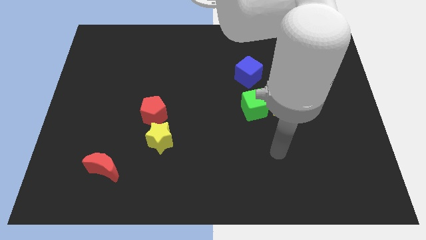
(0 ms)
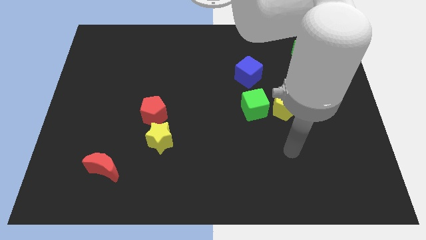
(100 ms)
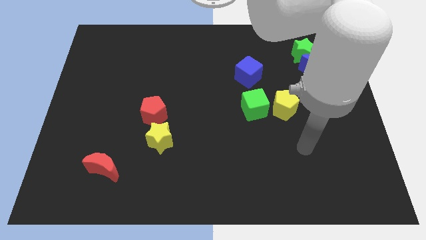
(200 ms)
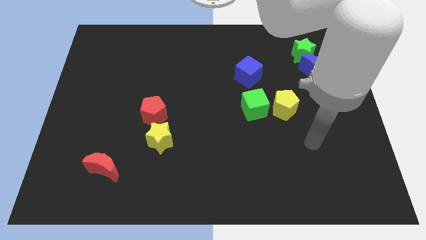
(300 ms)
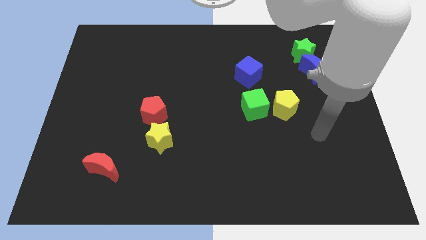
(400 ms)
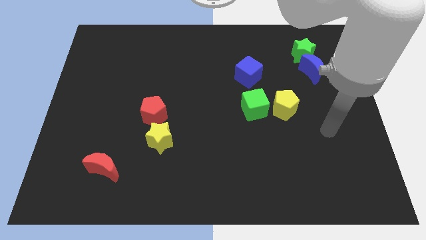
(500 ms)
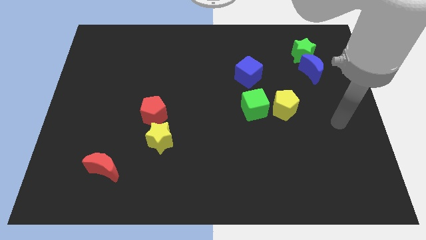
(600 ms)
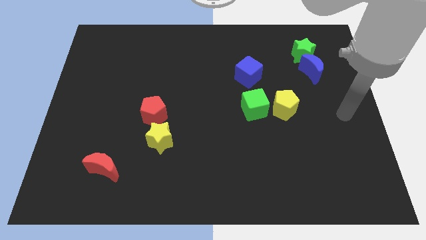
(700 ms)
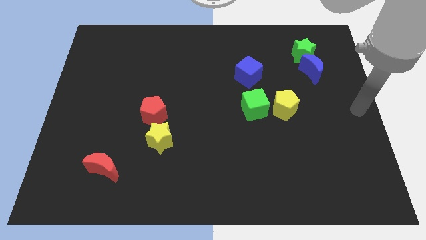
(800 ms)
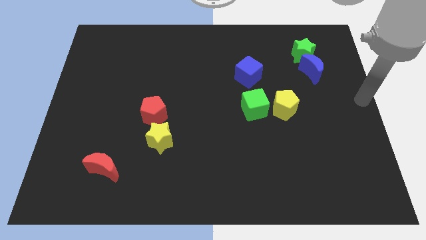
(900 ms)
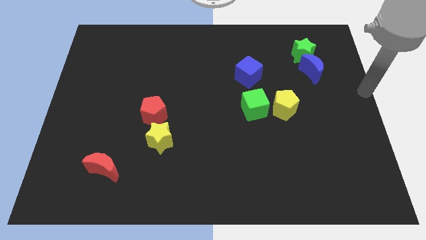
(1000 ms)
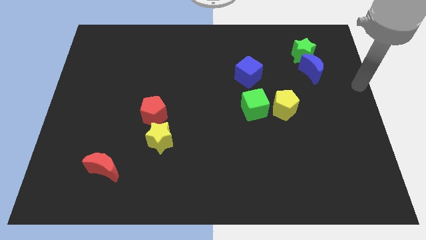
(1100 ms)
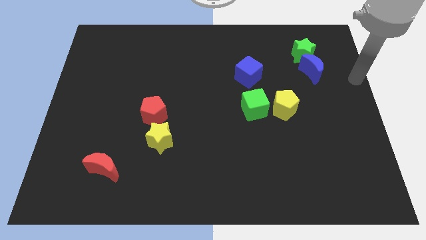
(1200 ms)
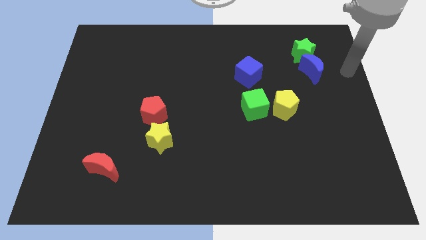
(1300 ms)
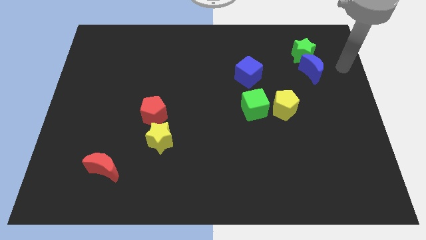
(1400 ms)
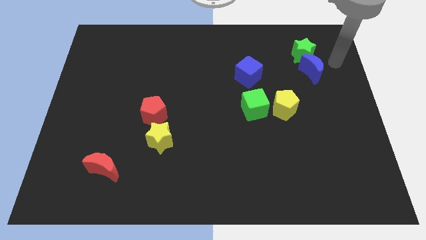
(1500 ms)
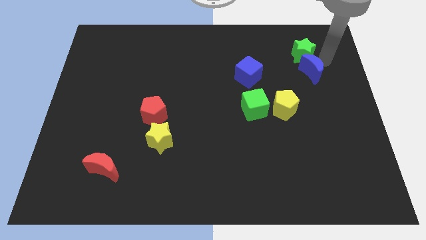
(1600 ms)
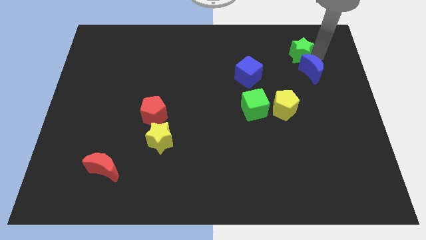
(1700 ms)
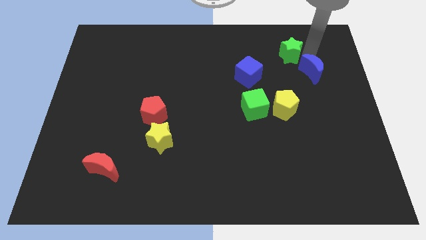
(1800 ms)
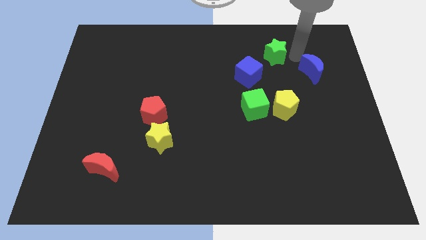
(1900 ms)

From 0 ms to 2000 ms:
move the blue moon away from the green star

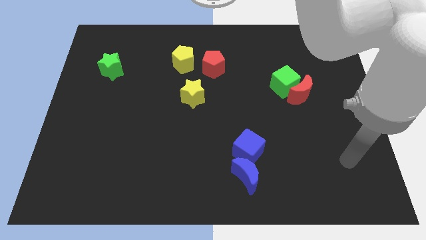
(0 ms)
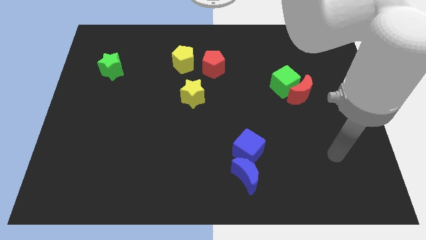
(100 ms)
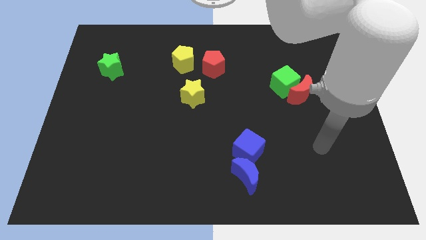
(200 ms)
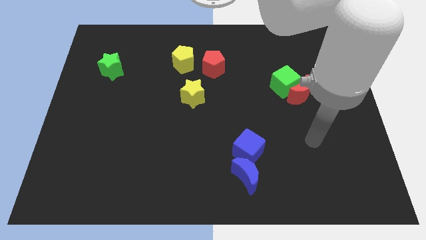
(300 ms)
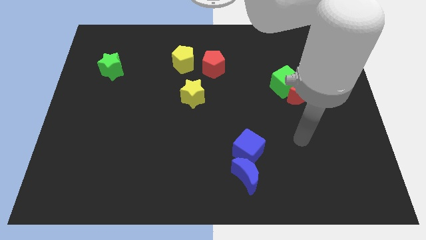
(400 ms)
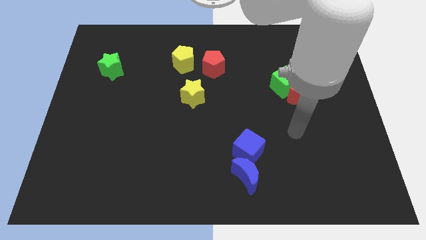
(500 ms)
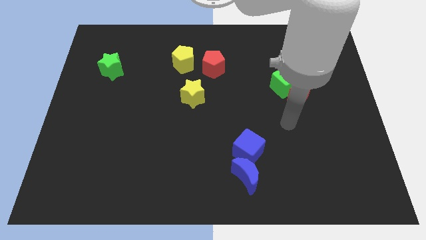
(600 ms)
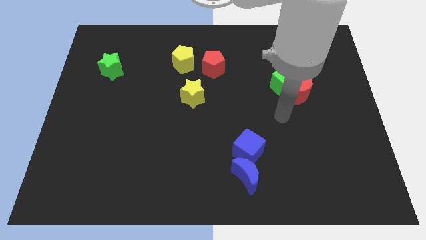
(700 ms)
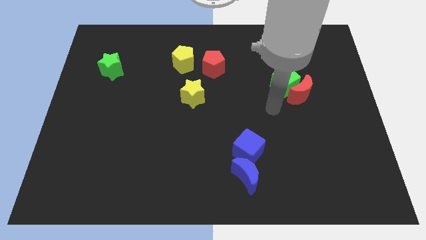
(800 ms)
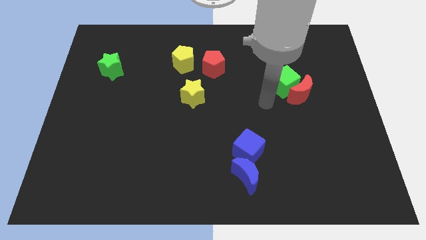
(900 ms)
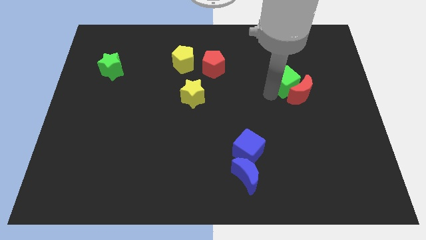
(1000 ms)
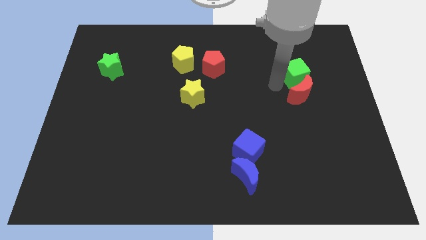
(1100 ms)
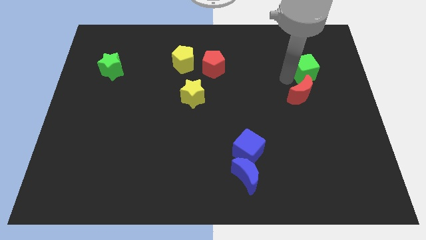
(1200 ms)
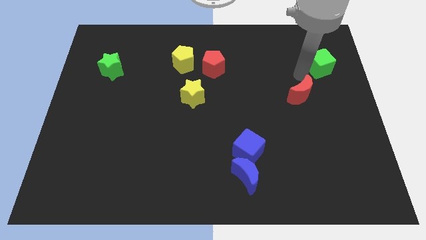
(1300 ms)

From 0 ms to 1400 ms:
separate the red moon from the green cube

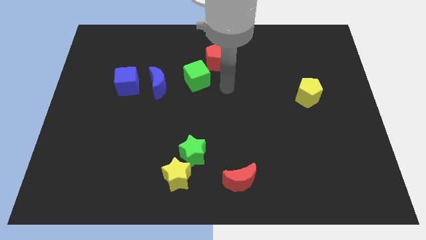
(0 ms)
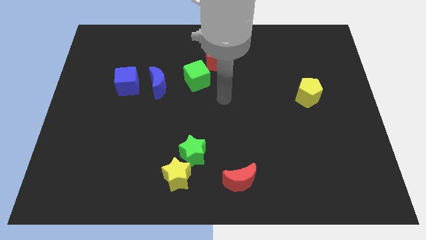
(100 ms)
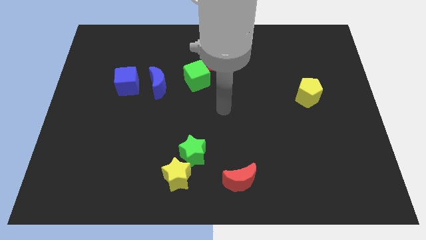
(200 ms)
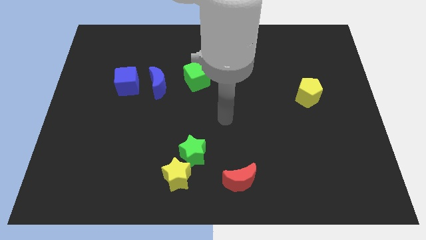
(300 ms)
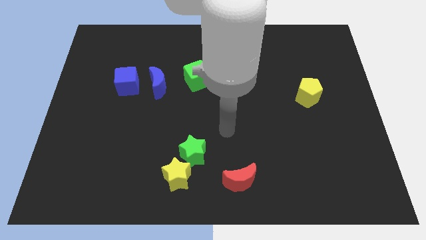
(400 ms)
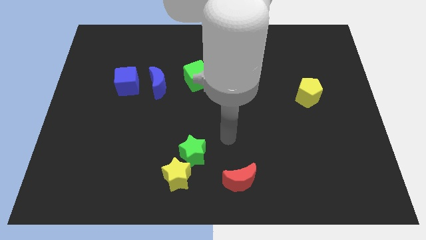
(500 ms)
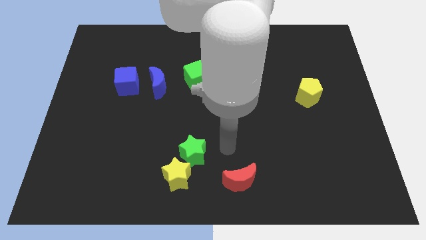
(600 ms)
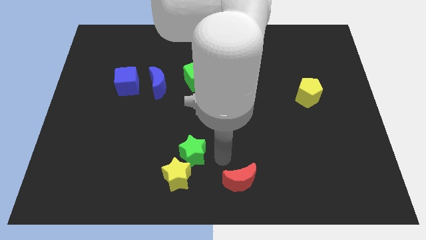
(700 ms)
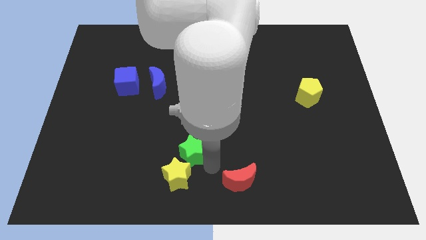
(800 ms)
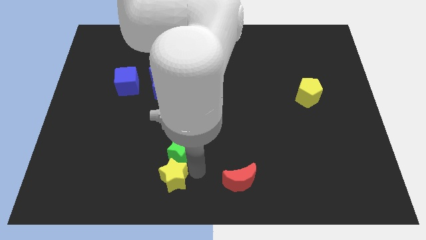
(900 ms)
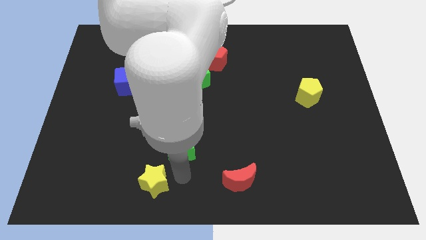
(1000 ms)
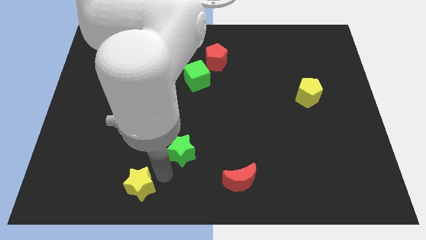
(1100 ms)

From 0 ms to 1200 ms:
move the green star away from the yellow star

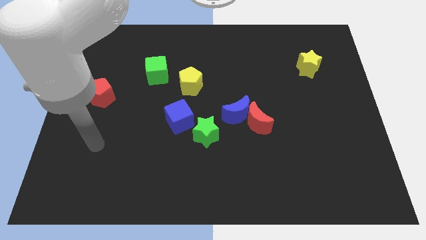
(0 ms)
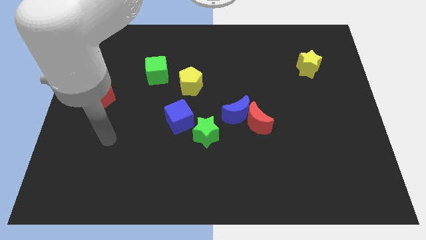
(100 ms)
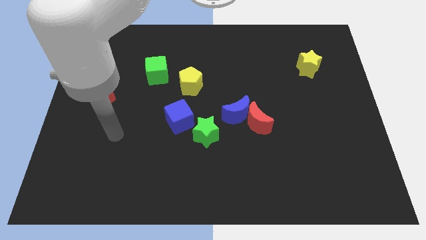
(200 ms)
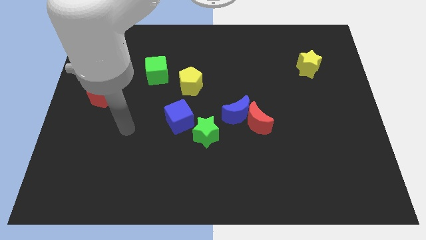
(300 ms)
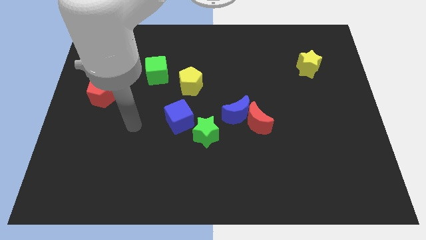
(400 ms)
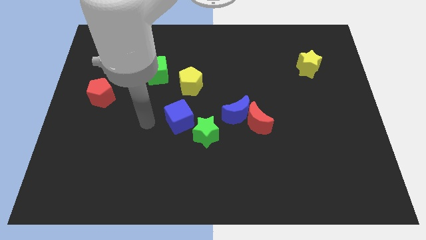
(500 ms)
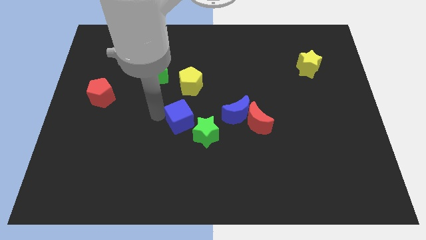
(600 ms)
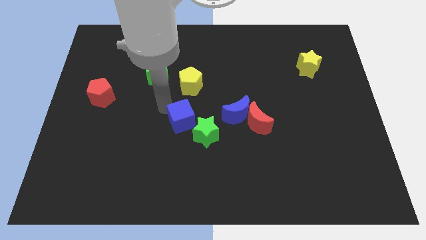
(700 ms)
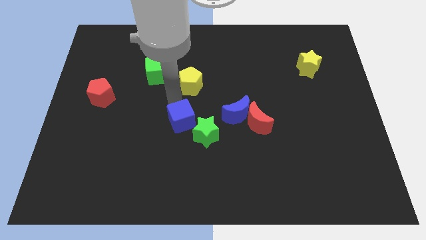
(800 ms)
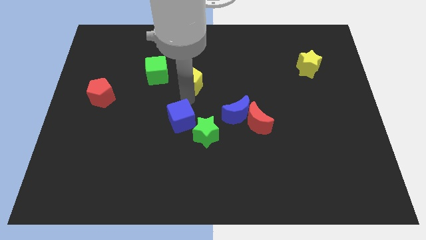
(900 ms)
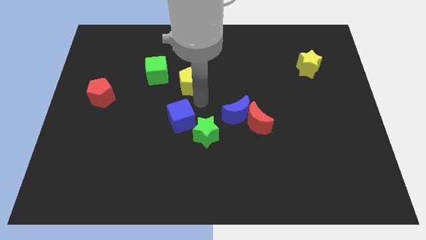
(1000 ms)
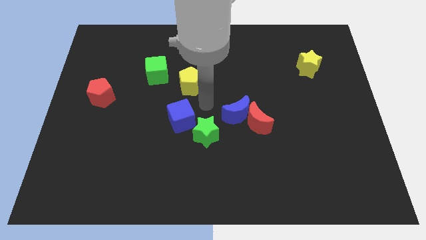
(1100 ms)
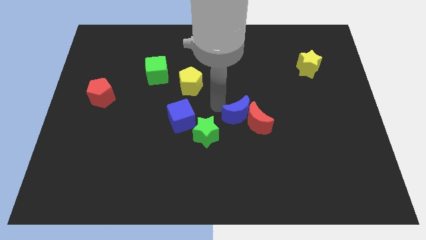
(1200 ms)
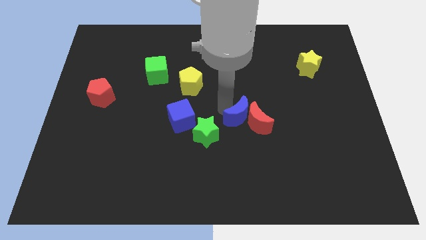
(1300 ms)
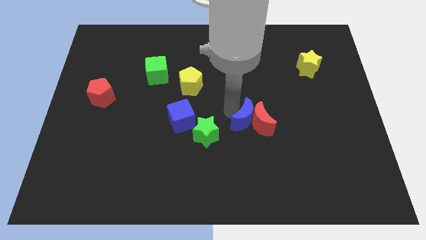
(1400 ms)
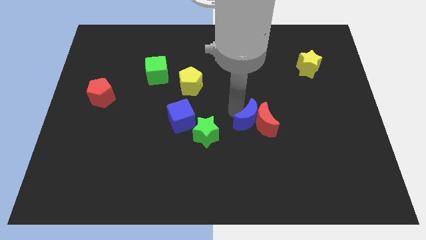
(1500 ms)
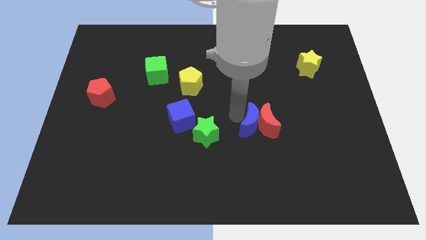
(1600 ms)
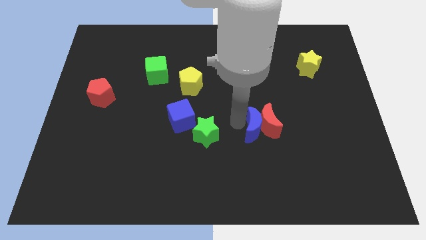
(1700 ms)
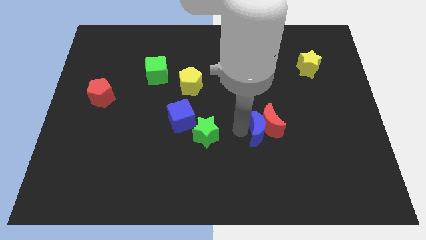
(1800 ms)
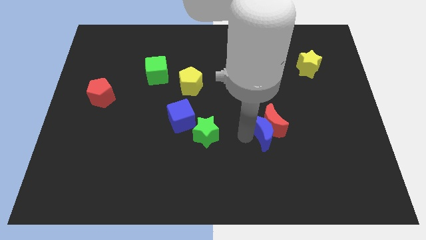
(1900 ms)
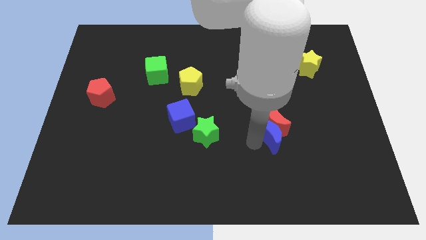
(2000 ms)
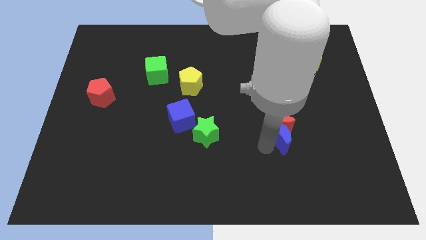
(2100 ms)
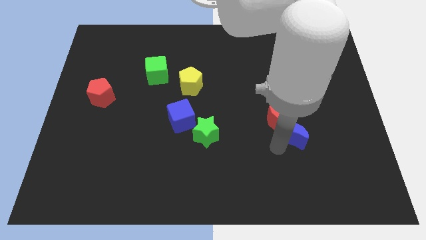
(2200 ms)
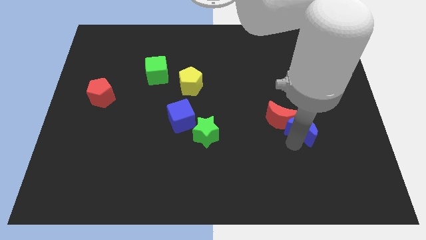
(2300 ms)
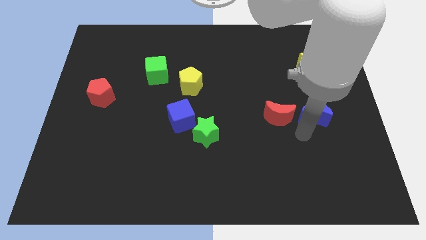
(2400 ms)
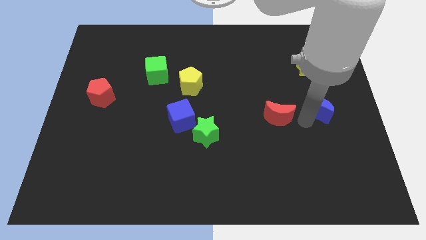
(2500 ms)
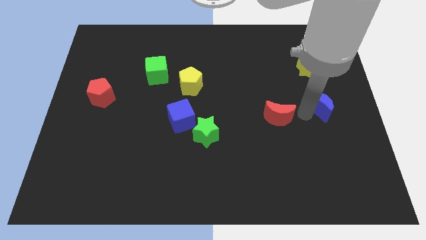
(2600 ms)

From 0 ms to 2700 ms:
move the red moon away from the blue moon

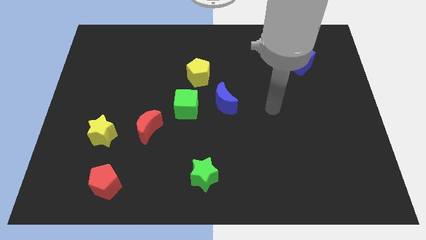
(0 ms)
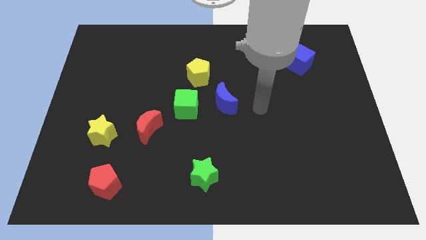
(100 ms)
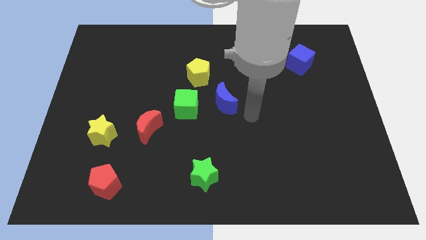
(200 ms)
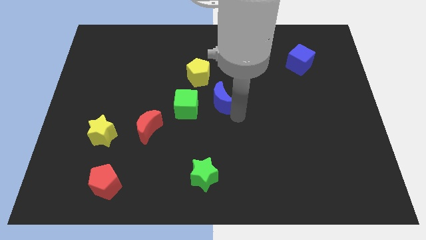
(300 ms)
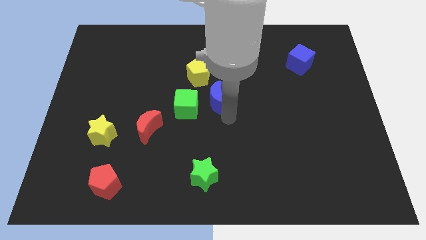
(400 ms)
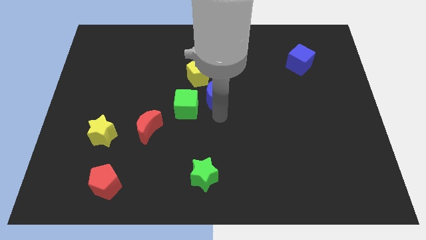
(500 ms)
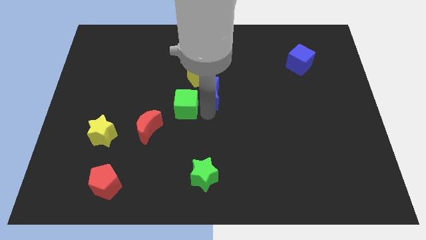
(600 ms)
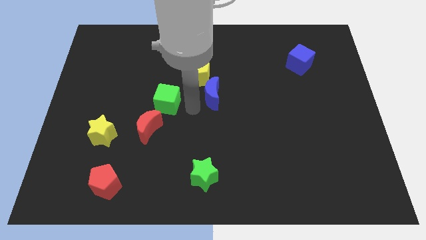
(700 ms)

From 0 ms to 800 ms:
pull the blue moon apart from the green cube

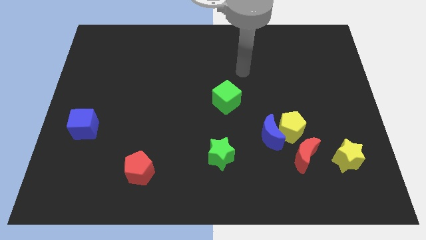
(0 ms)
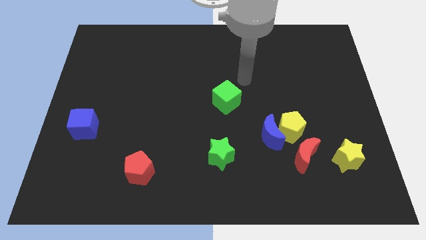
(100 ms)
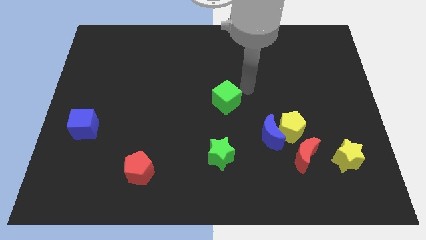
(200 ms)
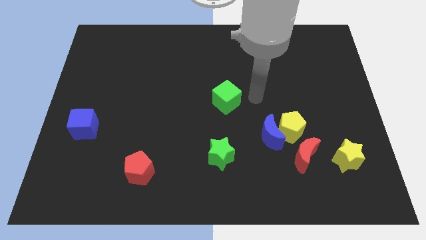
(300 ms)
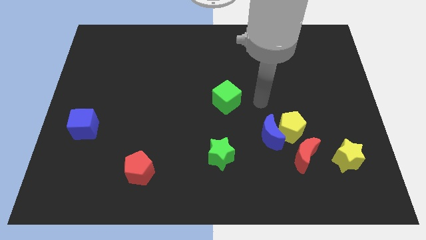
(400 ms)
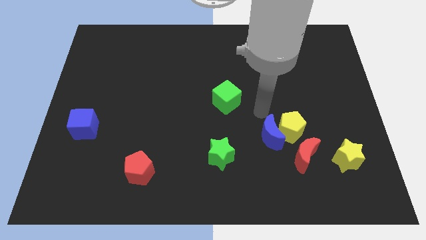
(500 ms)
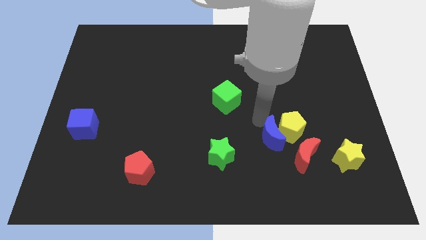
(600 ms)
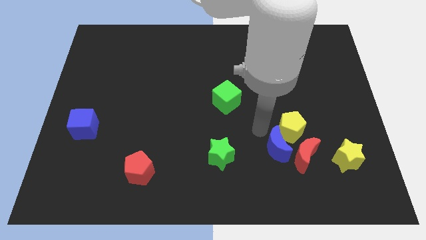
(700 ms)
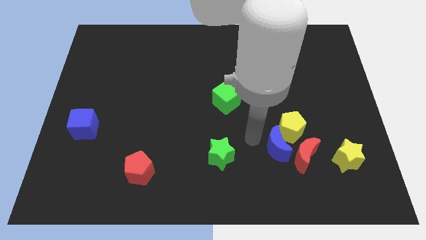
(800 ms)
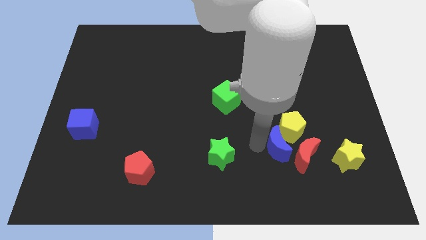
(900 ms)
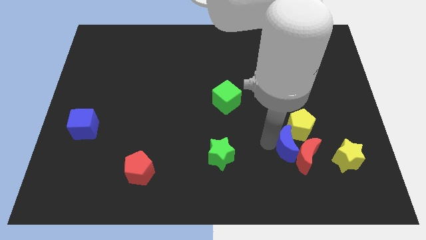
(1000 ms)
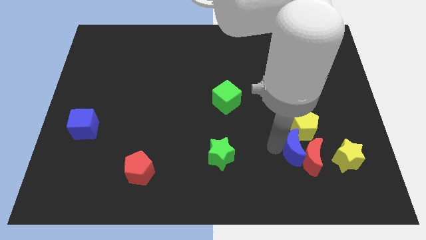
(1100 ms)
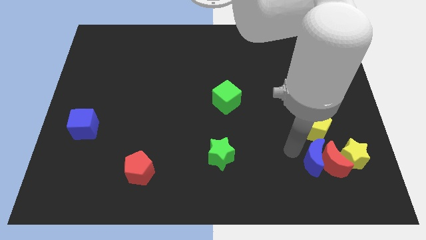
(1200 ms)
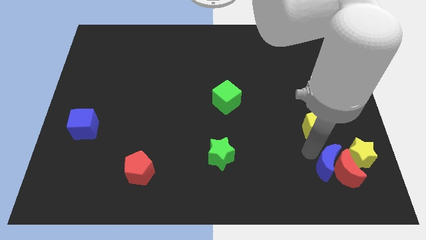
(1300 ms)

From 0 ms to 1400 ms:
move the yellow pentagon away from the blue moon and red moon
